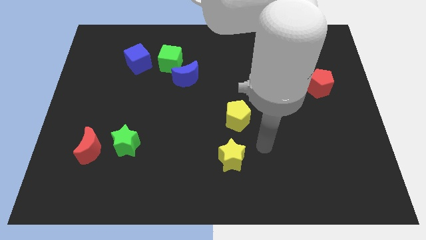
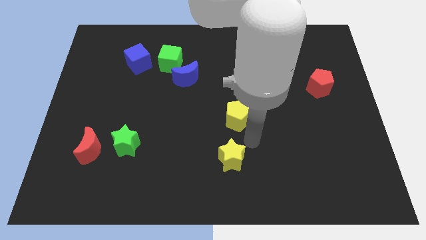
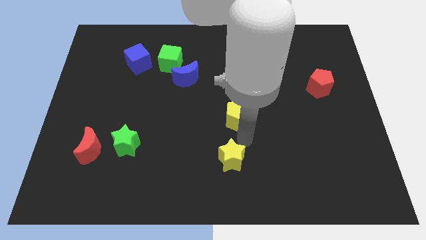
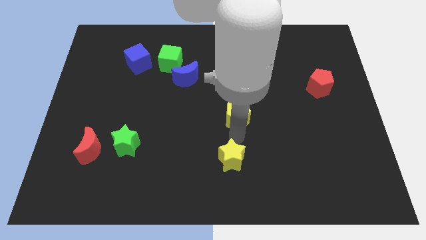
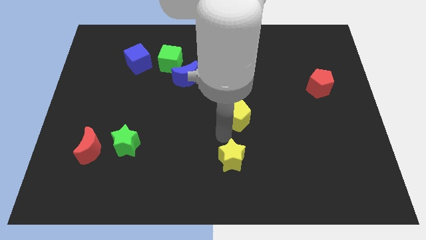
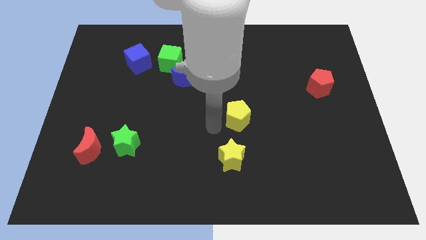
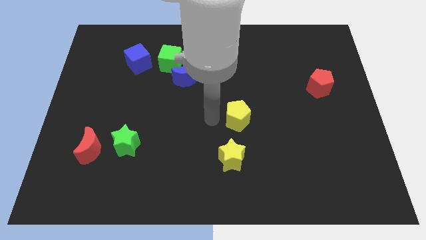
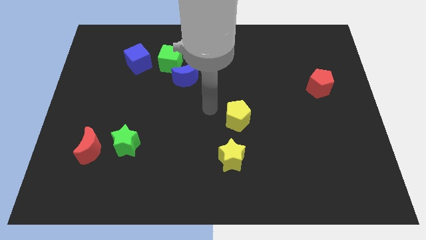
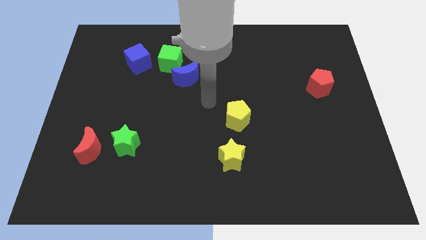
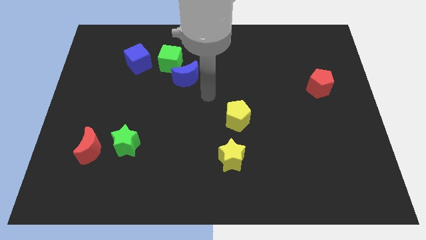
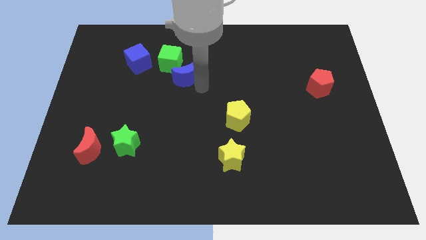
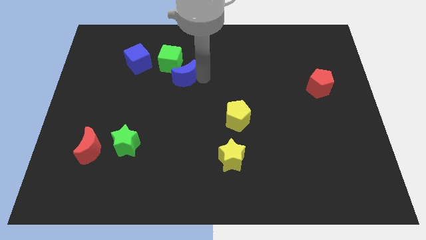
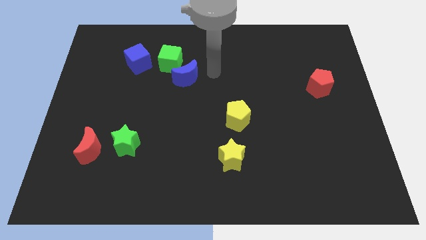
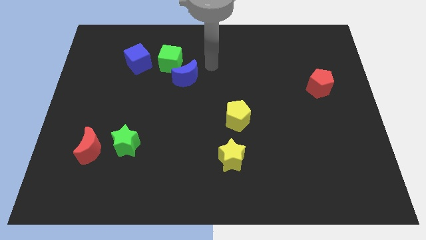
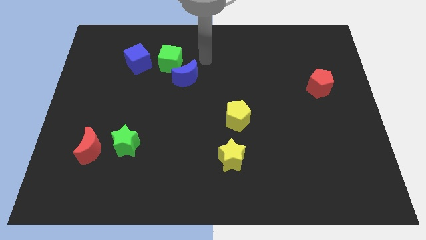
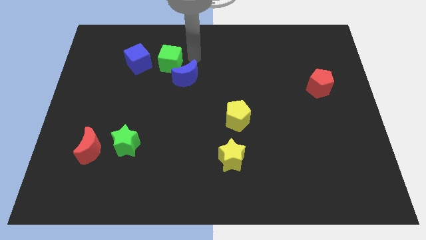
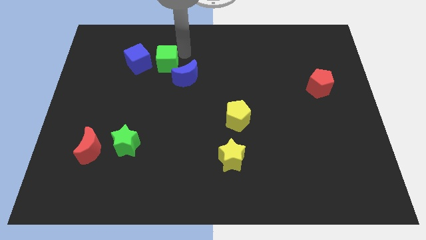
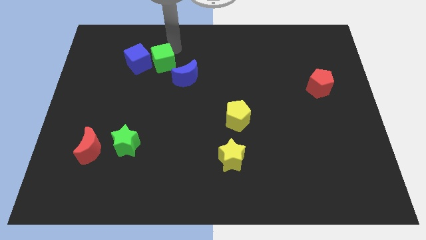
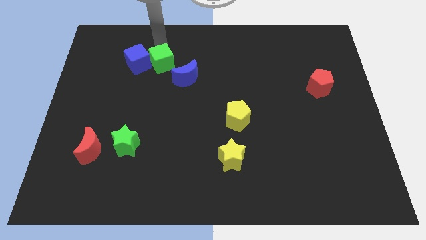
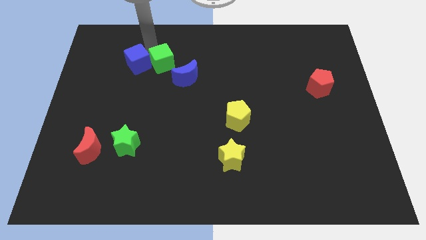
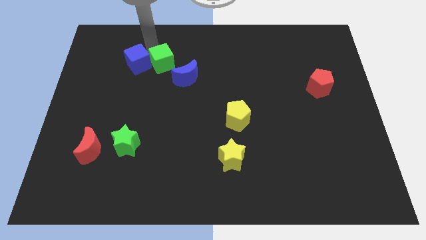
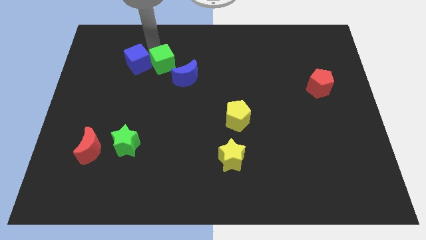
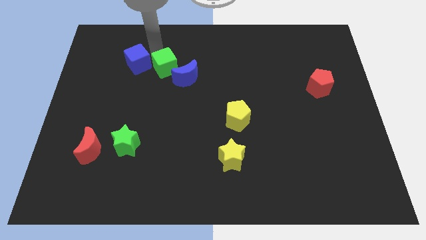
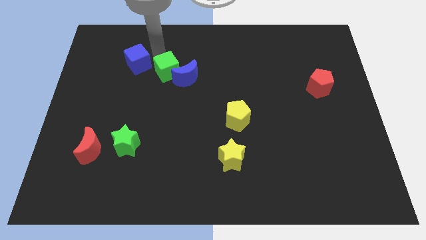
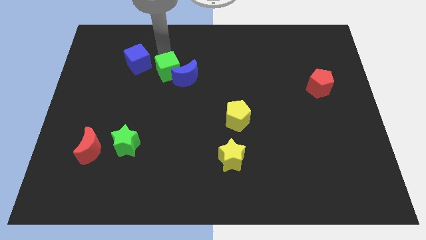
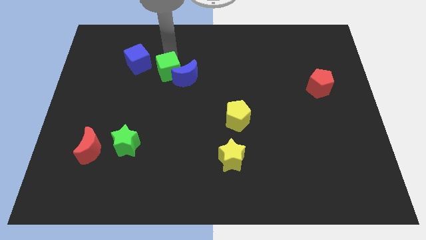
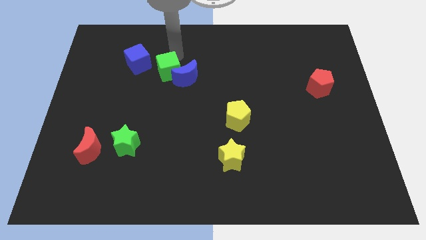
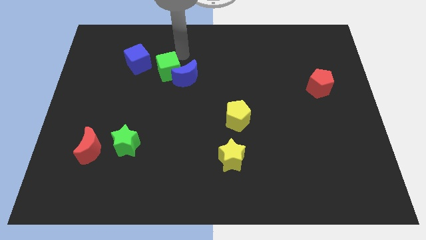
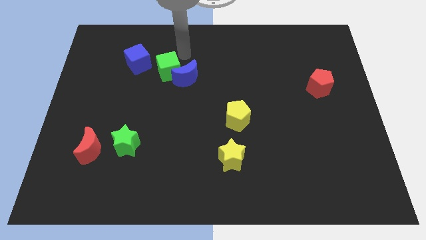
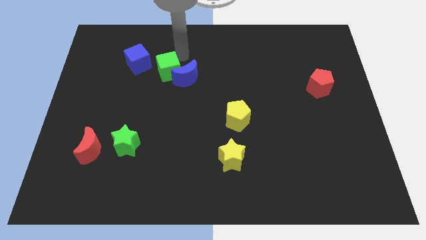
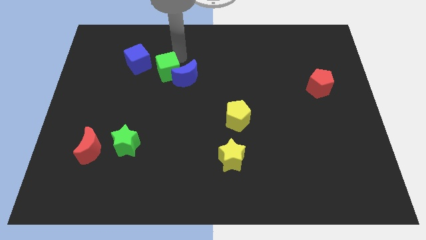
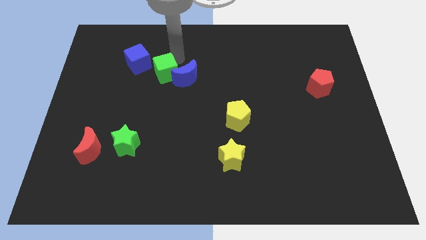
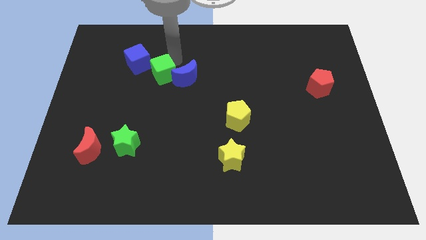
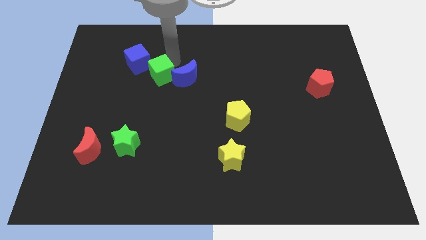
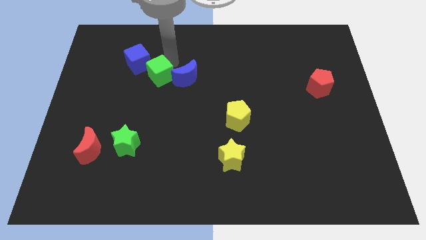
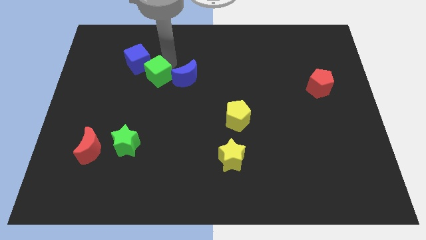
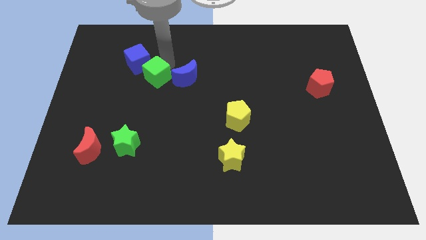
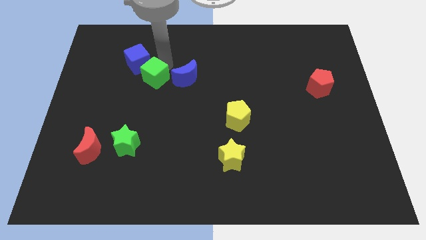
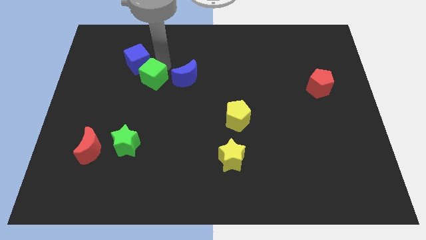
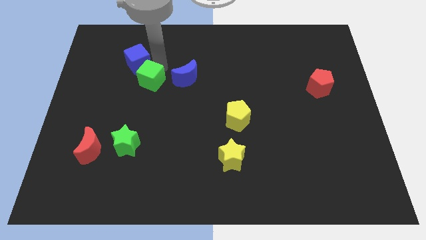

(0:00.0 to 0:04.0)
move the green cube a bit down and left diagonally

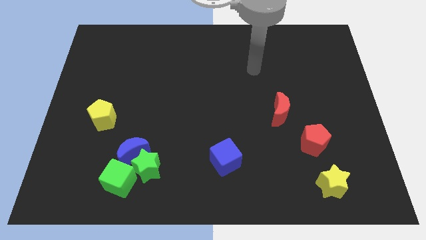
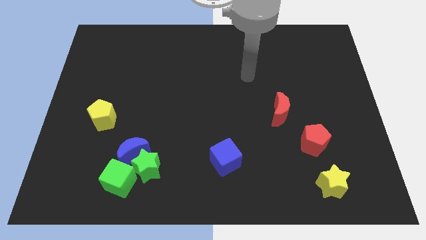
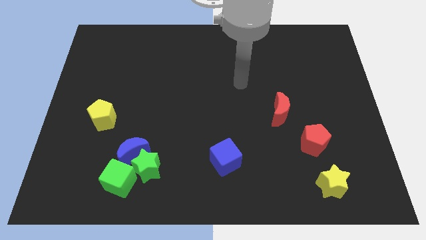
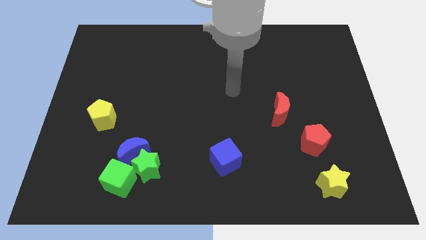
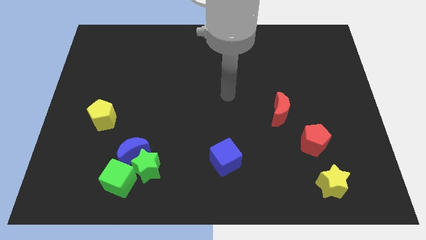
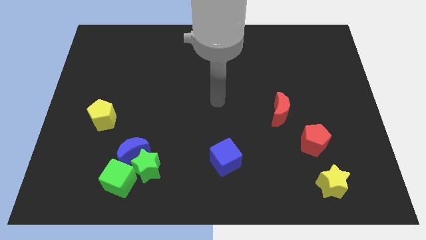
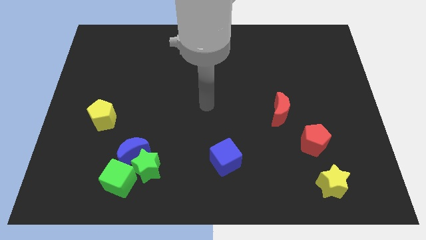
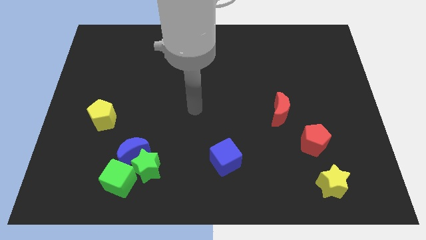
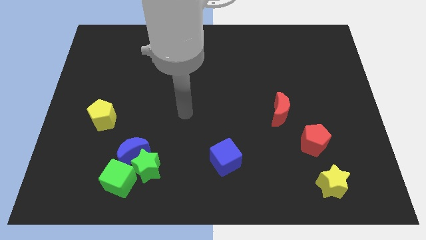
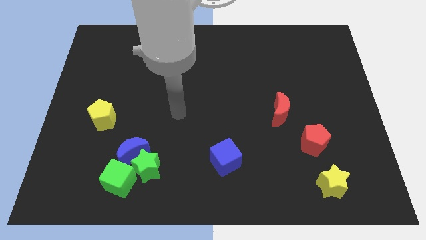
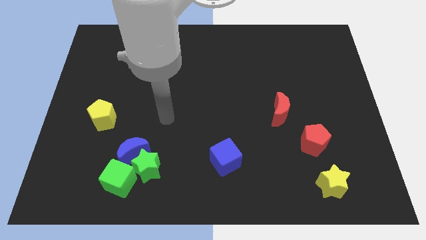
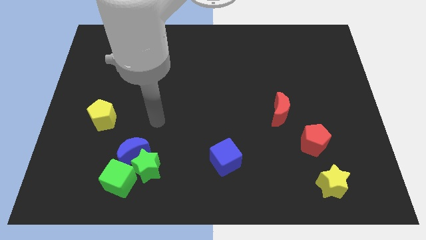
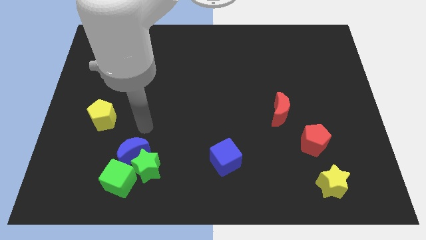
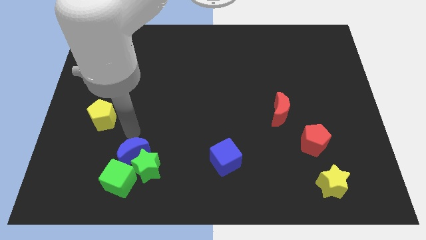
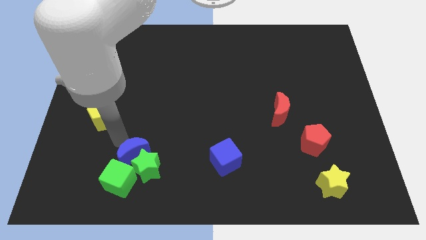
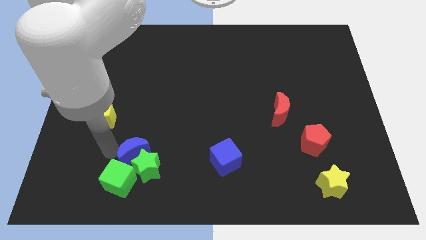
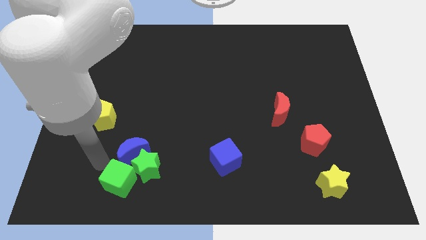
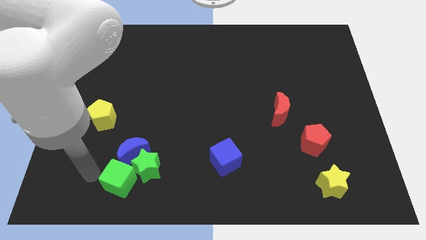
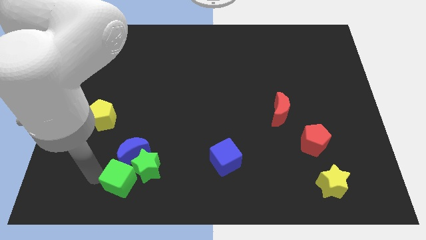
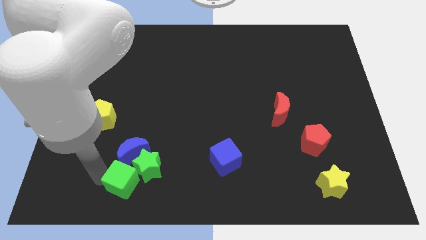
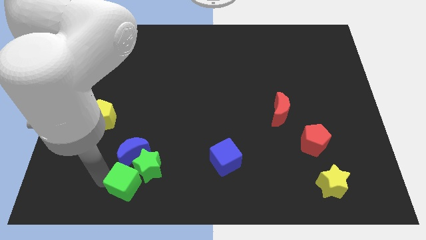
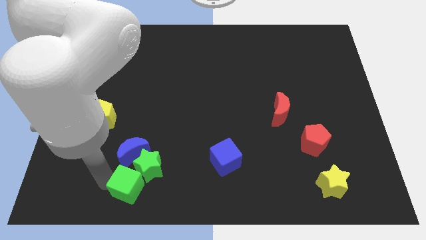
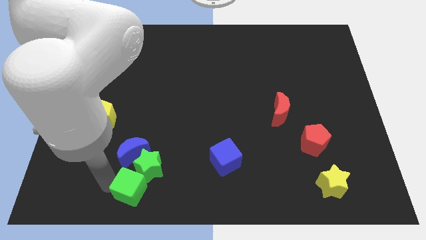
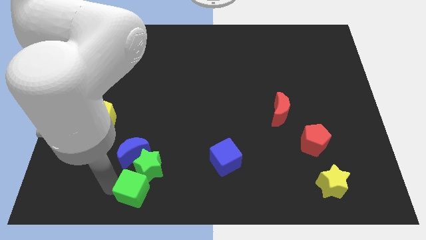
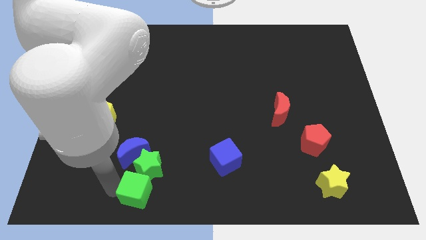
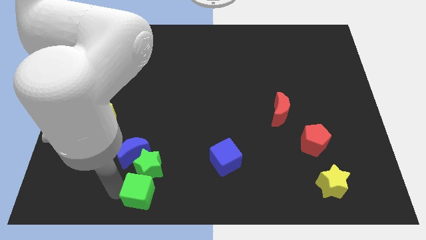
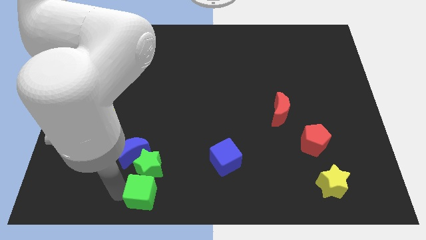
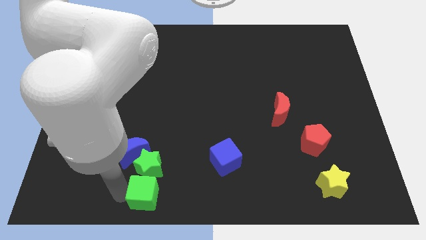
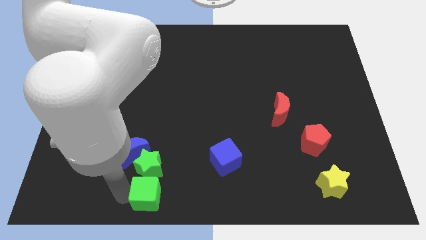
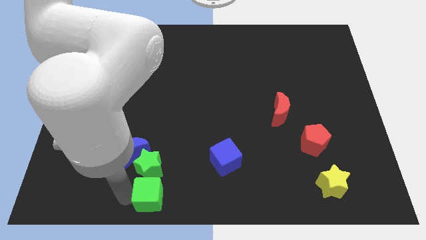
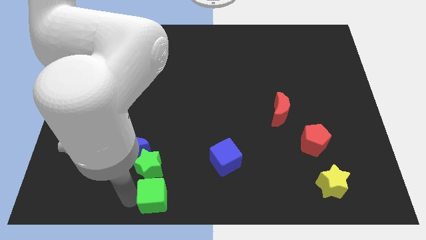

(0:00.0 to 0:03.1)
slide the green cube to the right slightly

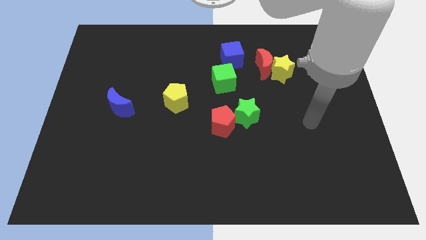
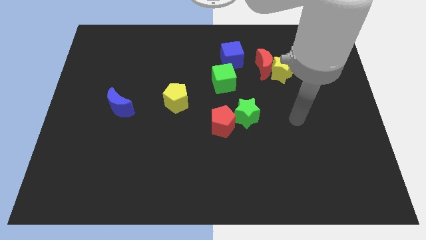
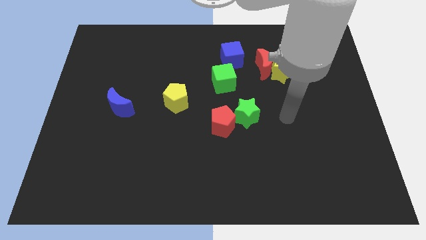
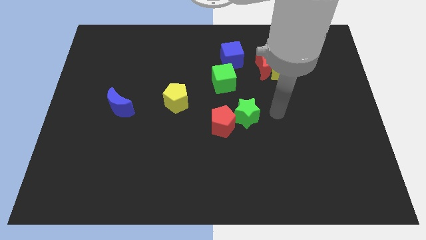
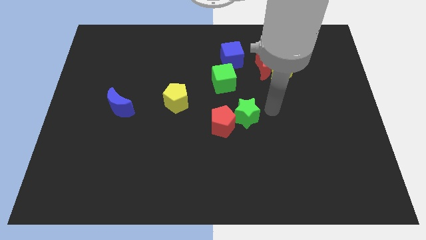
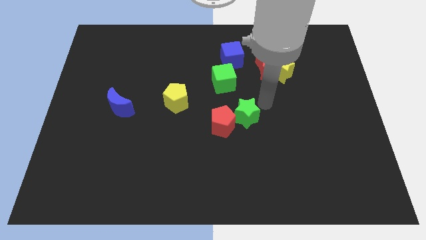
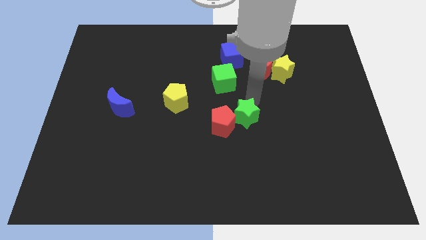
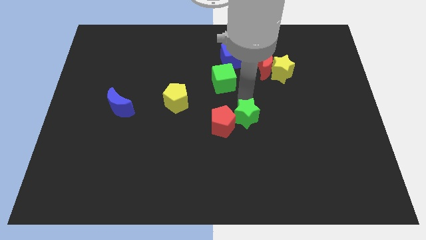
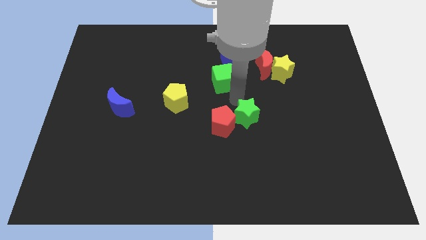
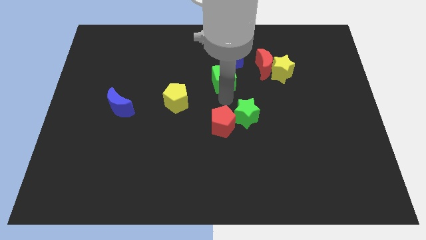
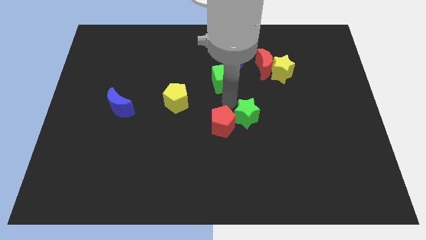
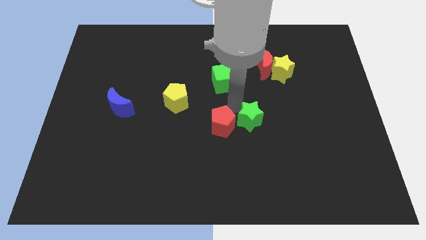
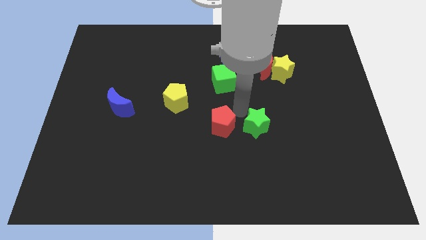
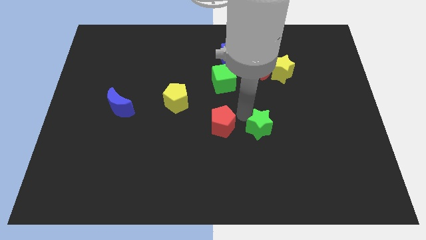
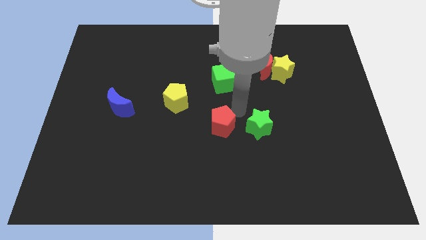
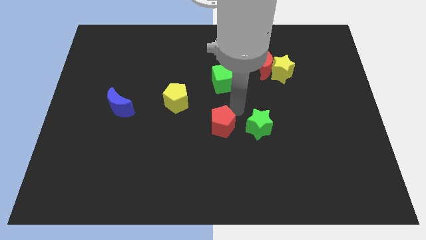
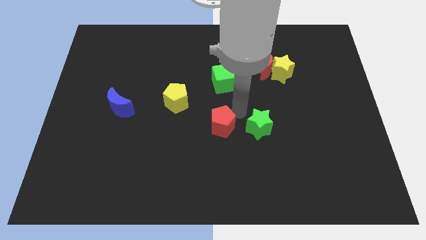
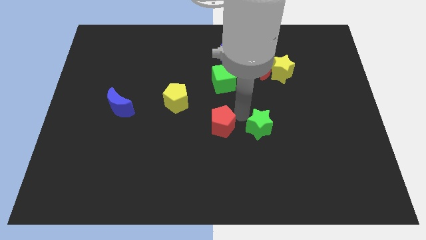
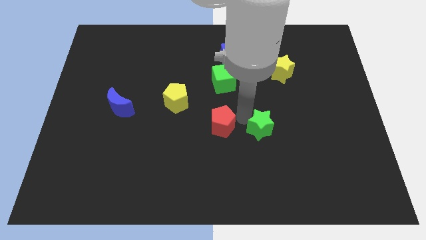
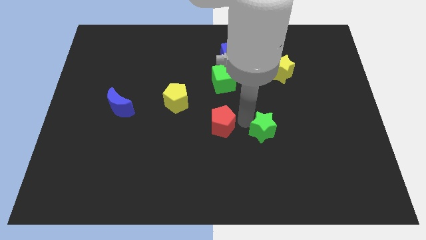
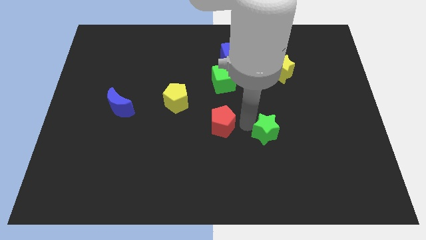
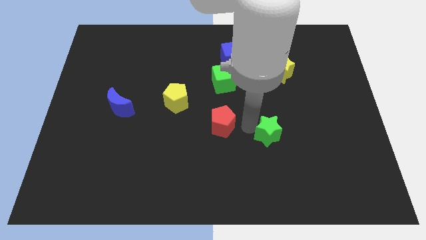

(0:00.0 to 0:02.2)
move the green star downwards and to the right a bit
